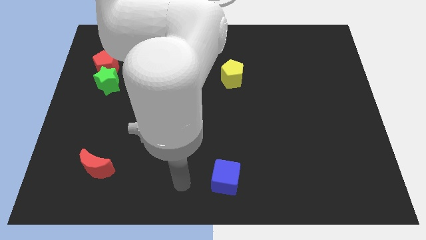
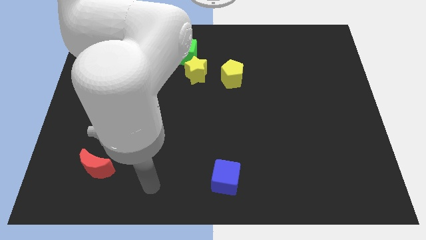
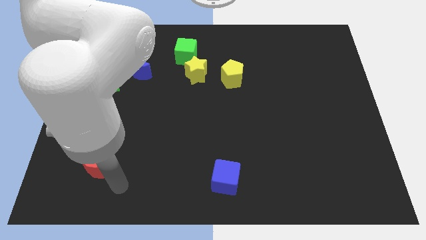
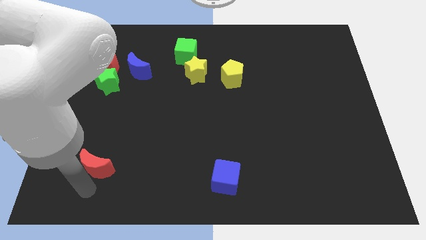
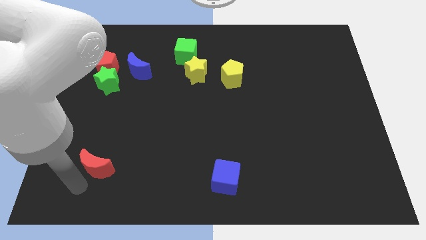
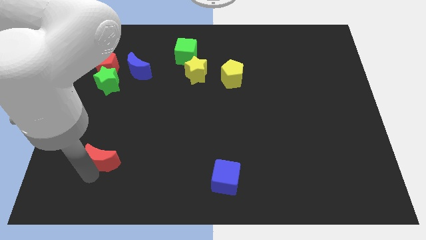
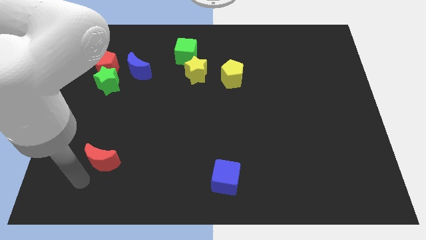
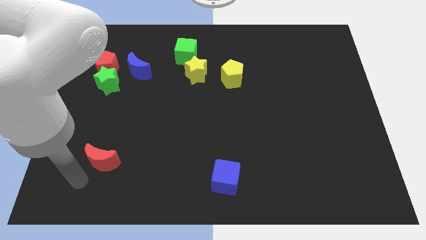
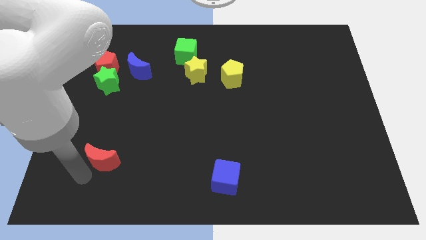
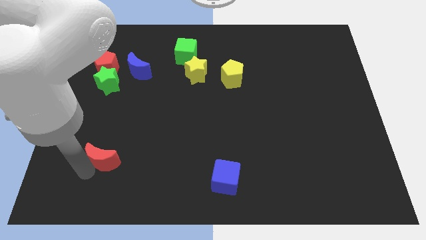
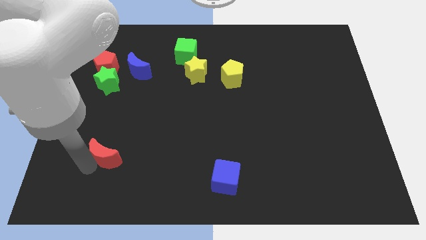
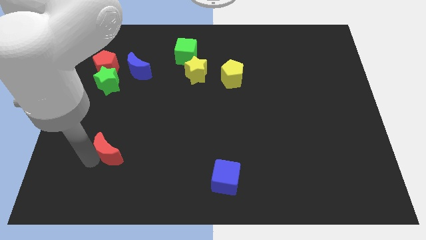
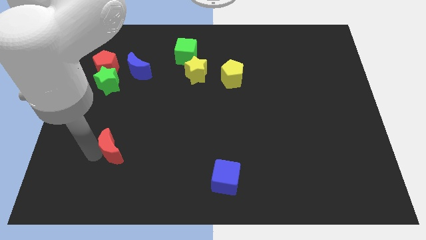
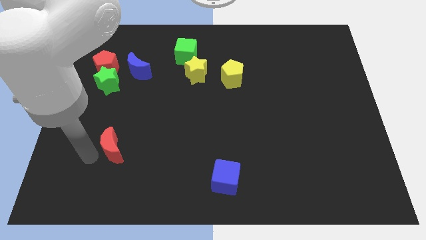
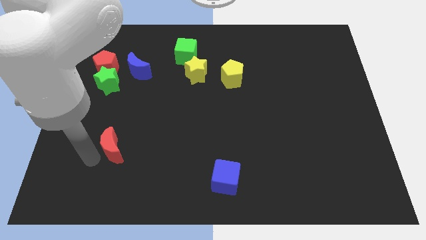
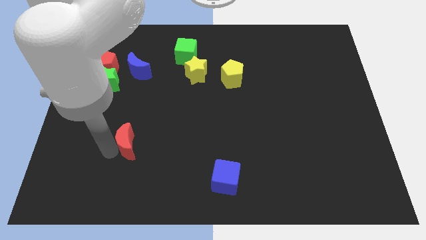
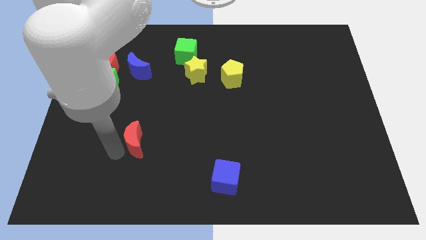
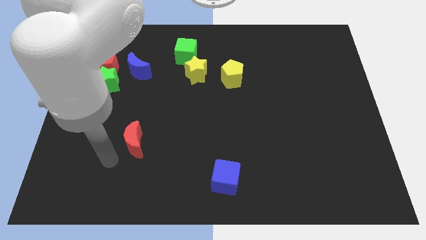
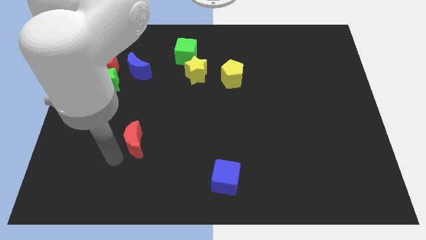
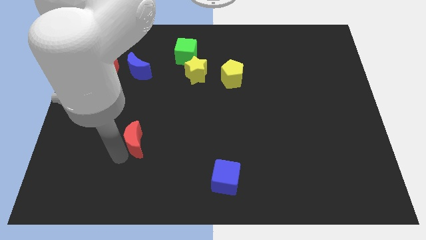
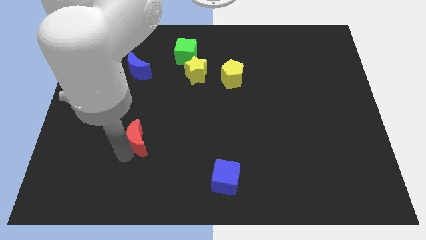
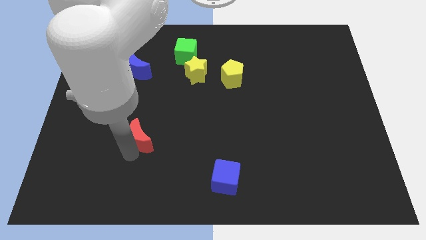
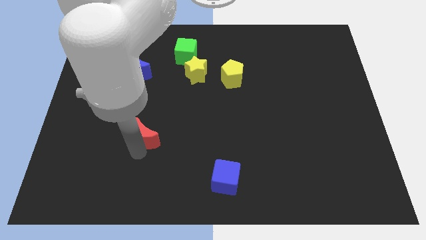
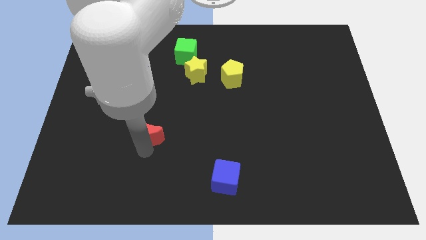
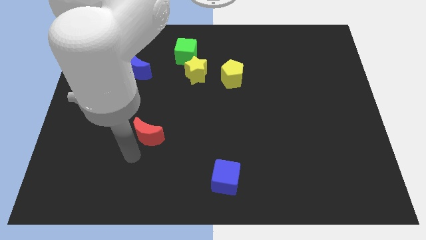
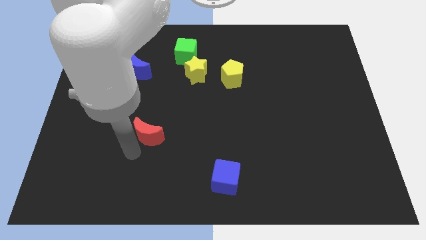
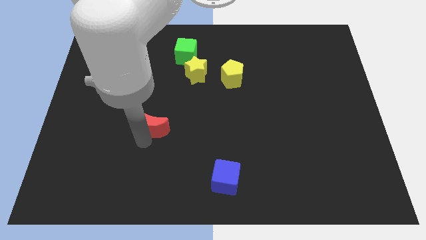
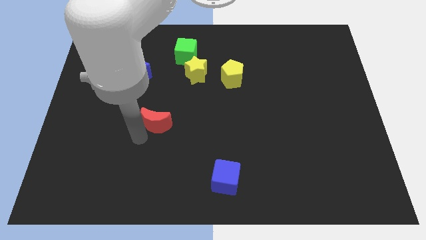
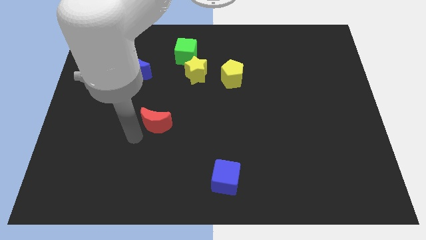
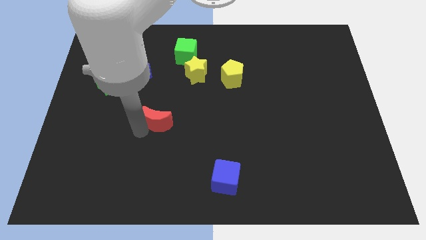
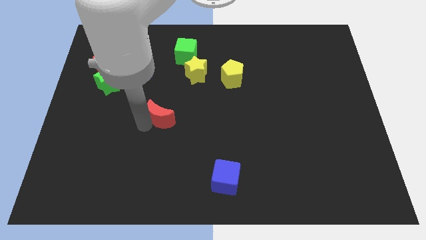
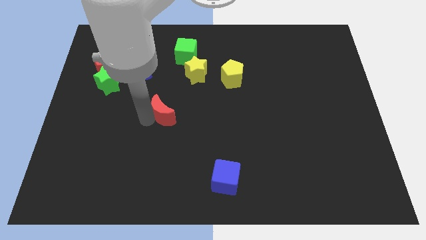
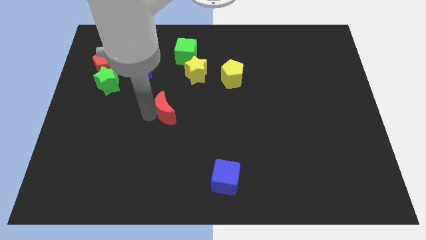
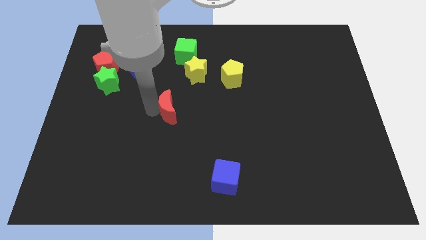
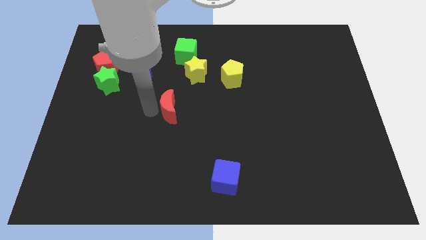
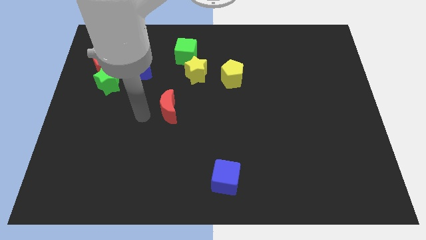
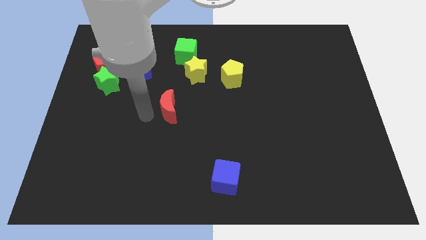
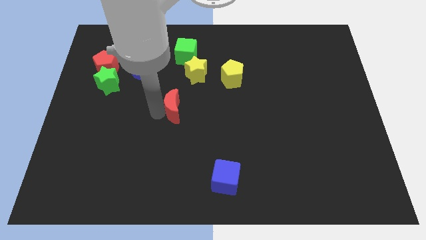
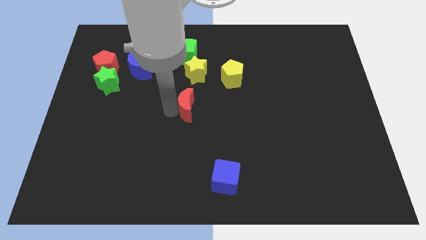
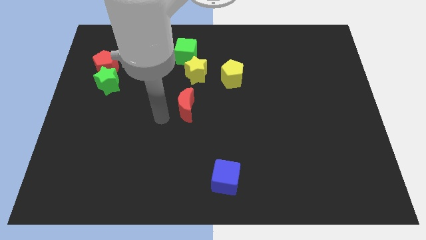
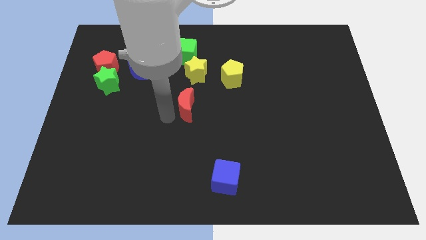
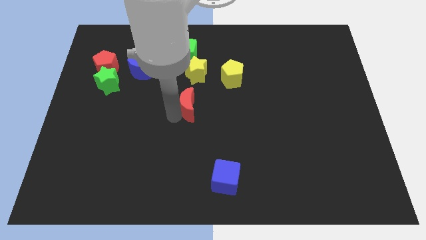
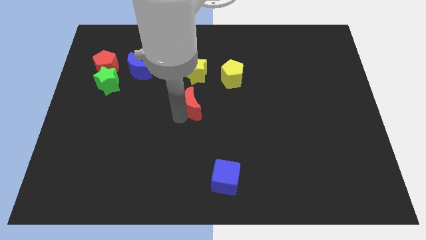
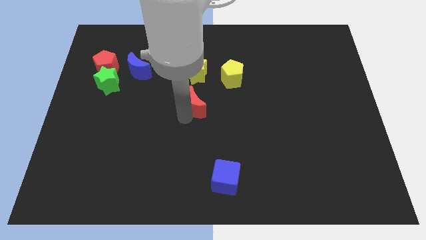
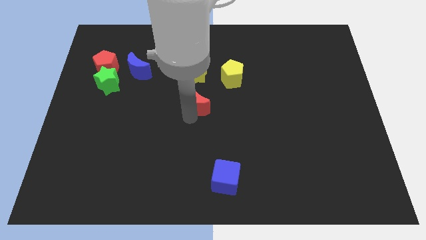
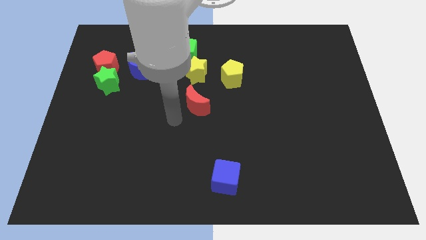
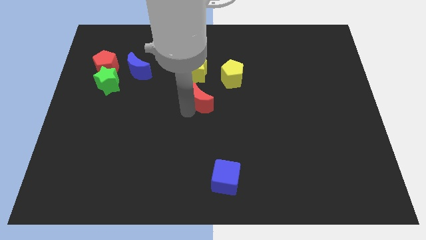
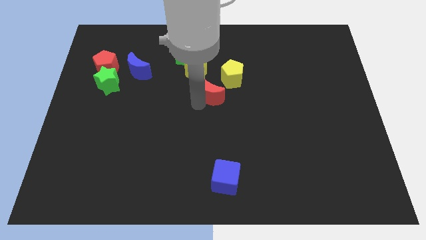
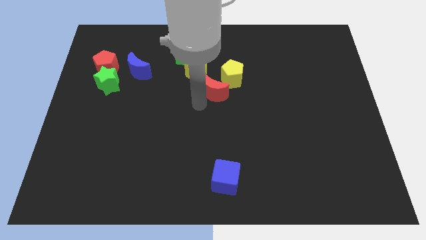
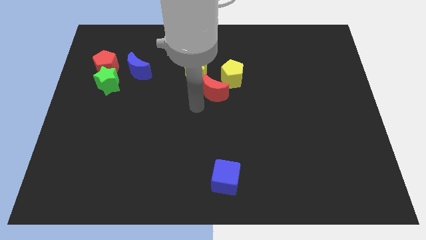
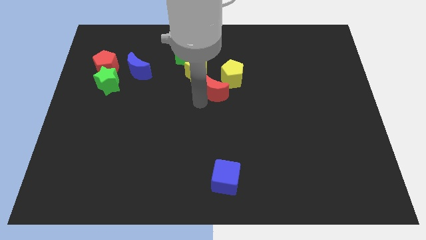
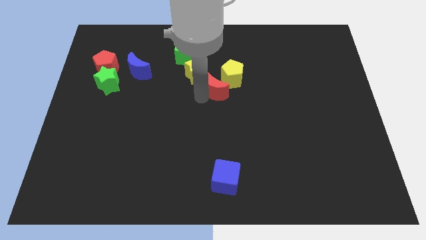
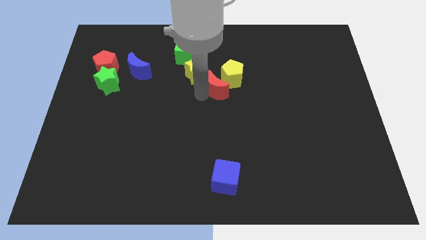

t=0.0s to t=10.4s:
move the red moon next to the yellow pentagon

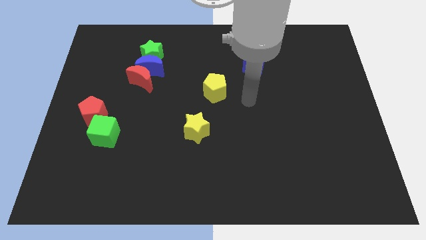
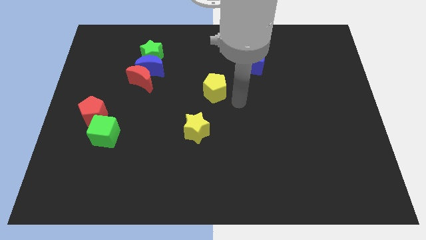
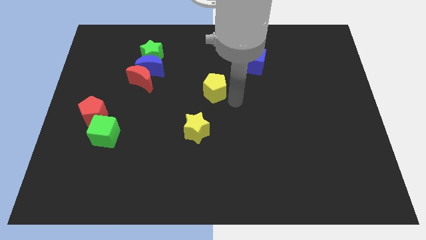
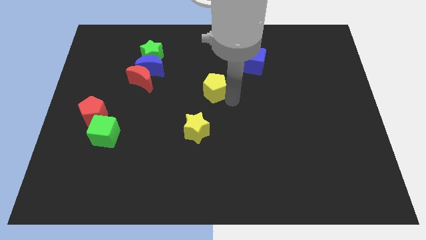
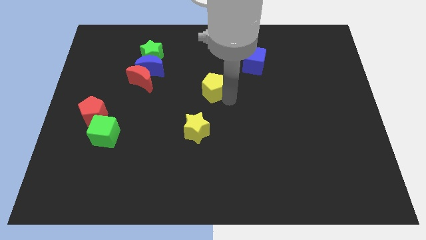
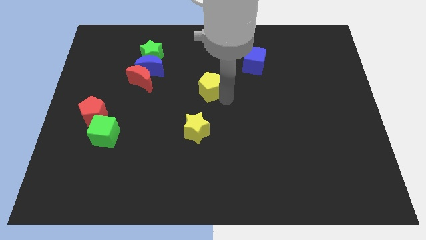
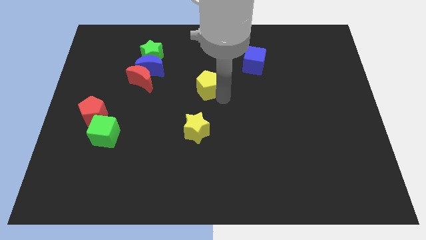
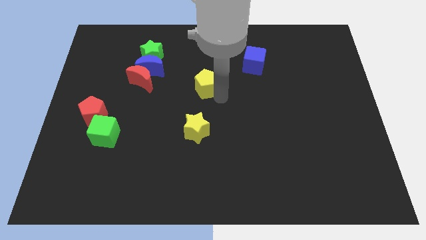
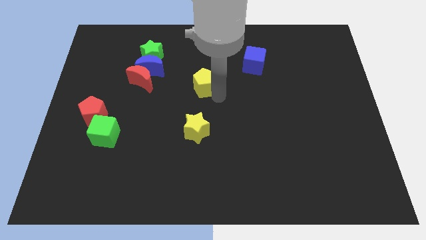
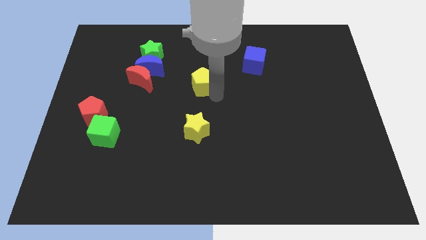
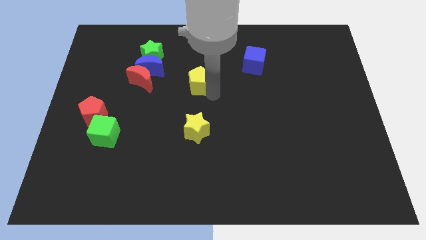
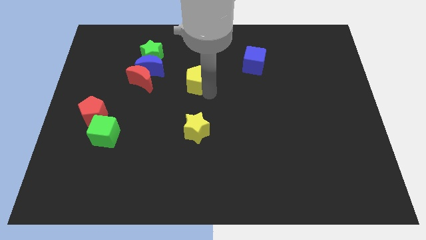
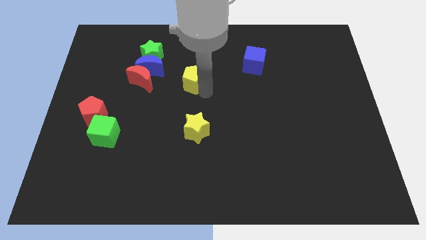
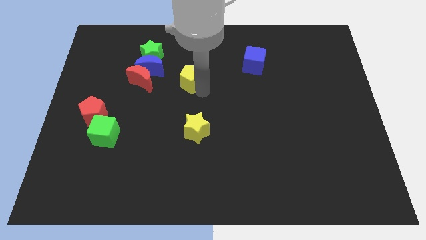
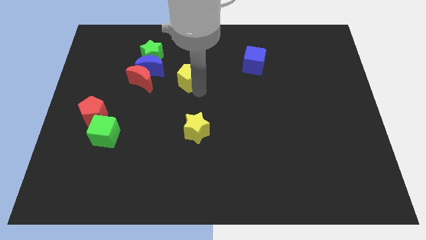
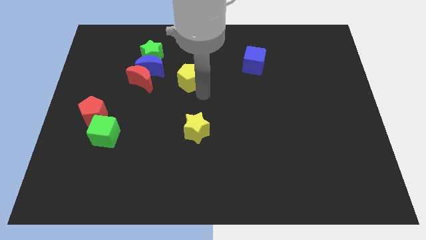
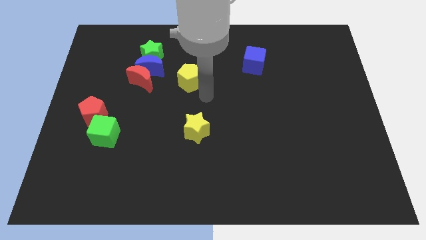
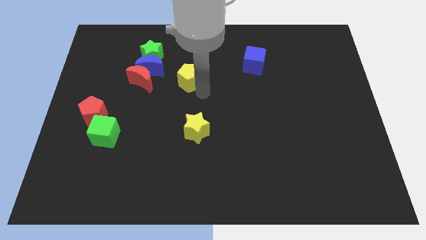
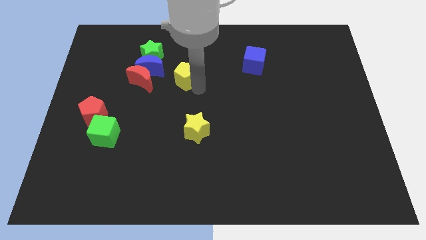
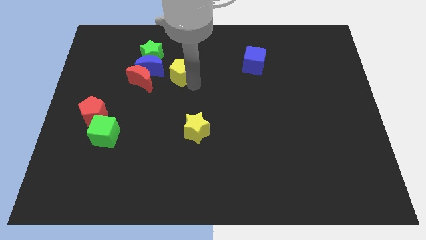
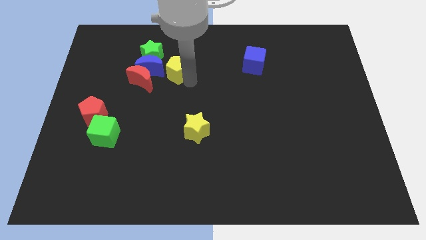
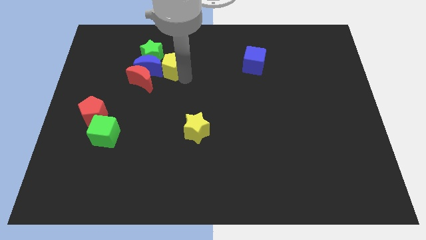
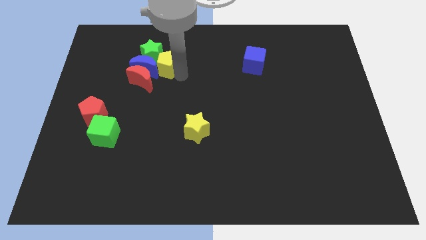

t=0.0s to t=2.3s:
push the yellow pentagon next to the green star
